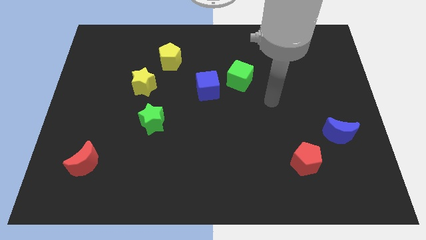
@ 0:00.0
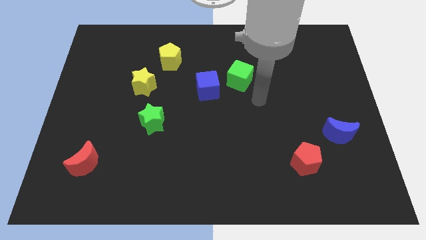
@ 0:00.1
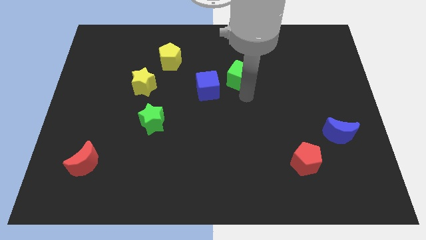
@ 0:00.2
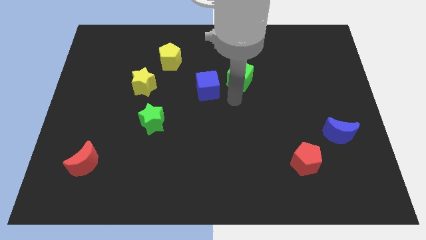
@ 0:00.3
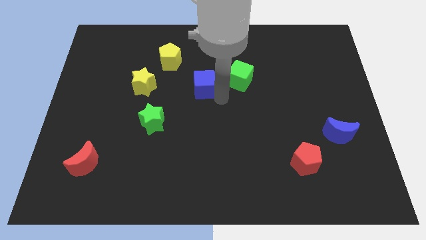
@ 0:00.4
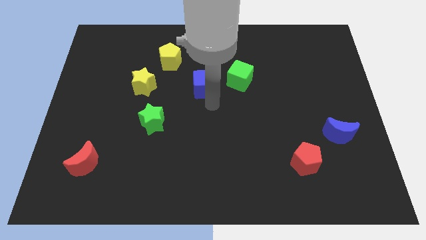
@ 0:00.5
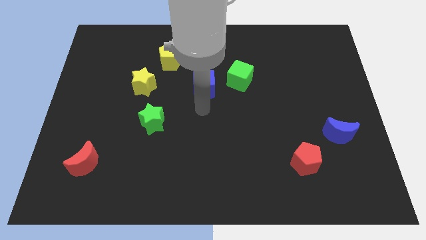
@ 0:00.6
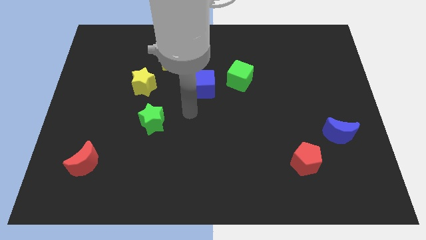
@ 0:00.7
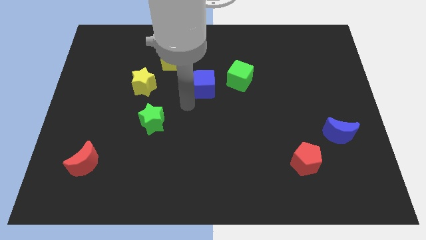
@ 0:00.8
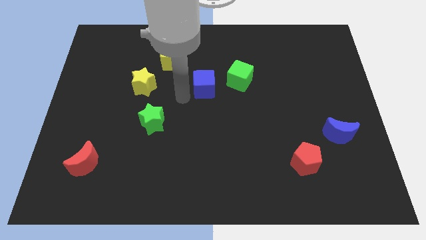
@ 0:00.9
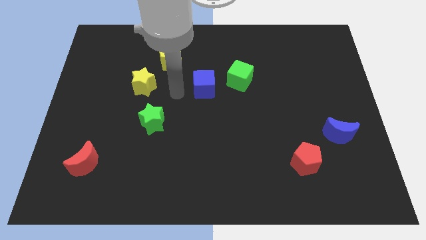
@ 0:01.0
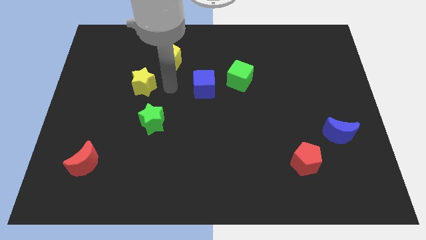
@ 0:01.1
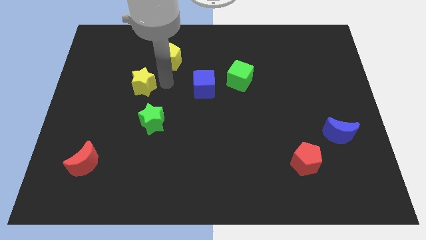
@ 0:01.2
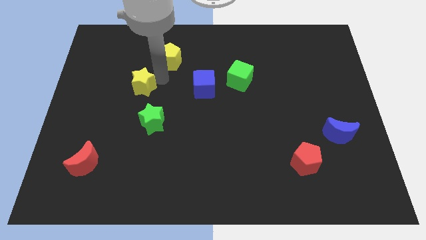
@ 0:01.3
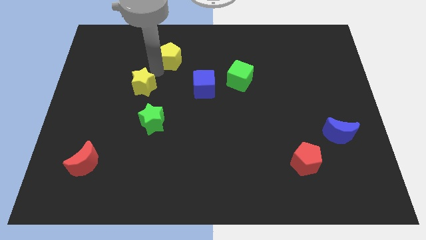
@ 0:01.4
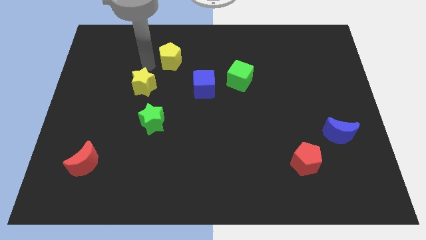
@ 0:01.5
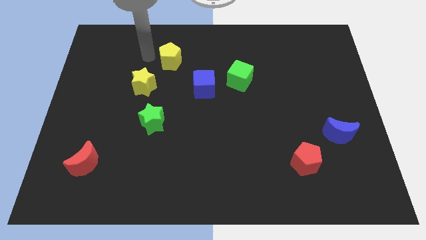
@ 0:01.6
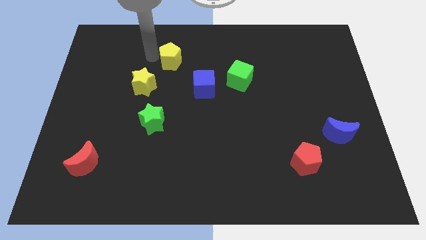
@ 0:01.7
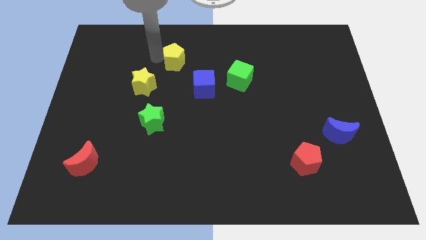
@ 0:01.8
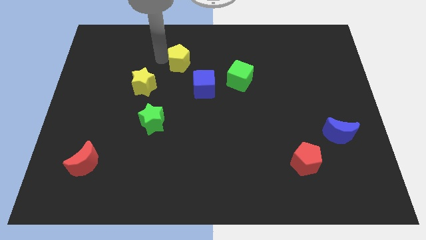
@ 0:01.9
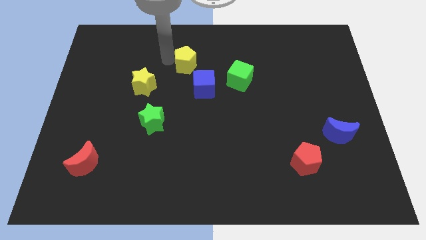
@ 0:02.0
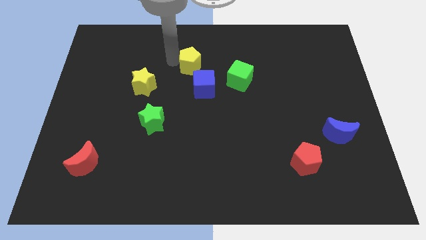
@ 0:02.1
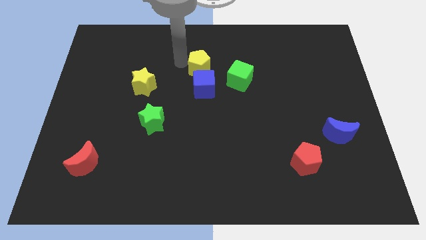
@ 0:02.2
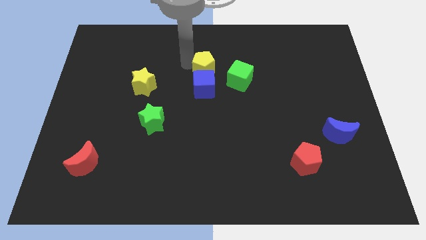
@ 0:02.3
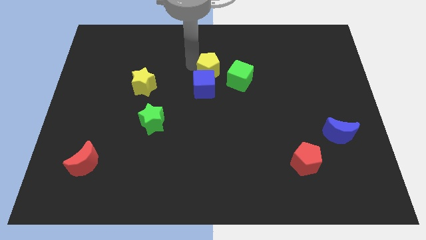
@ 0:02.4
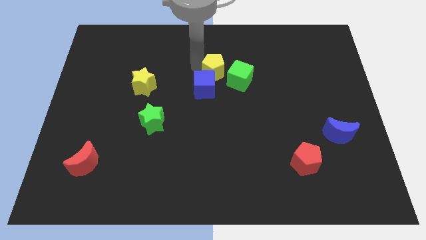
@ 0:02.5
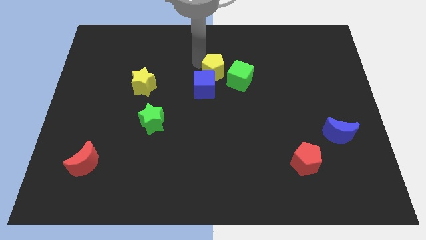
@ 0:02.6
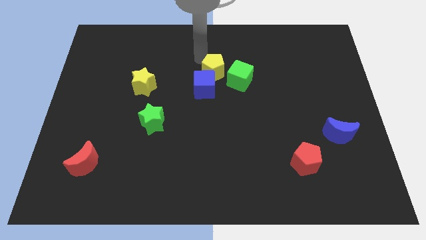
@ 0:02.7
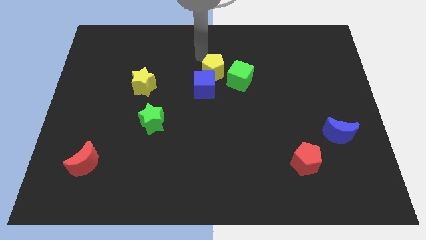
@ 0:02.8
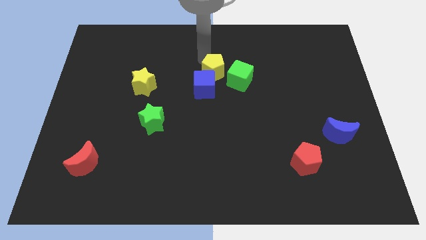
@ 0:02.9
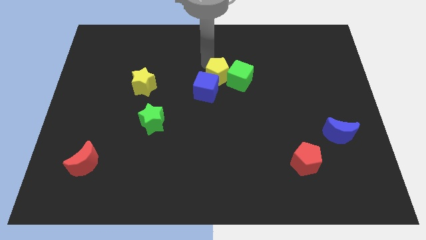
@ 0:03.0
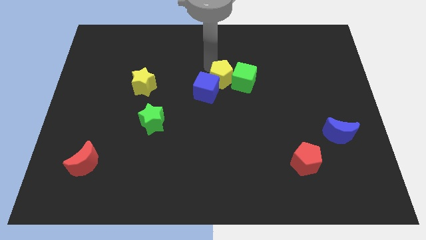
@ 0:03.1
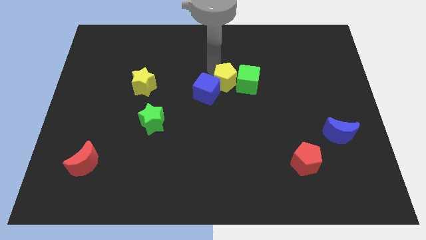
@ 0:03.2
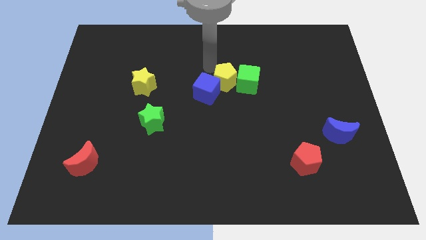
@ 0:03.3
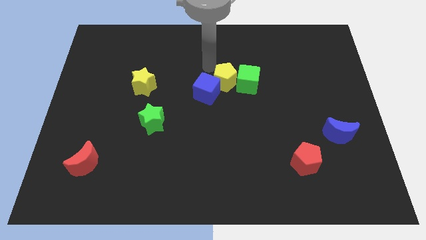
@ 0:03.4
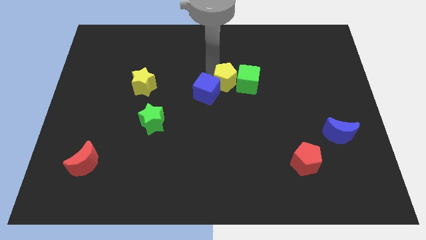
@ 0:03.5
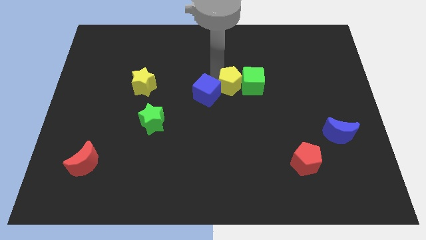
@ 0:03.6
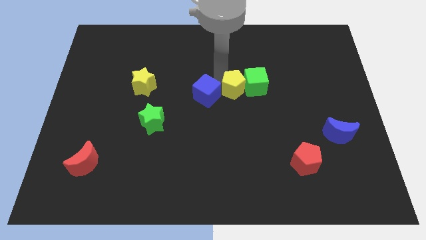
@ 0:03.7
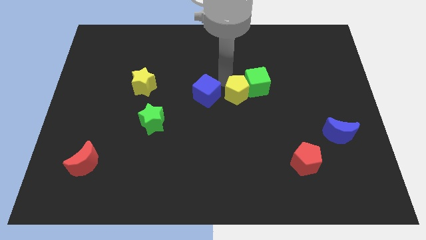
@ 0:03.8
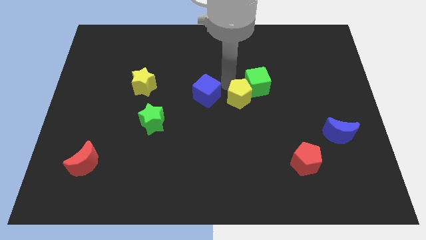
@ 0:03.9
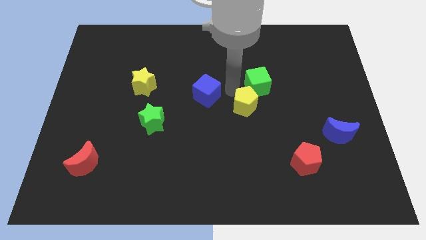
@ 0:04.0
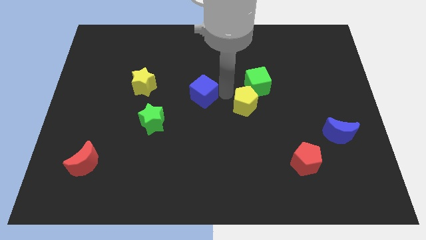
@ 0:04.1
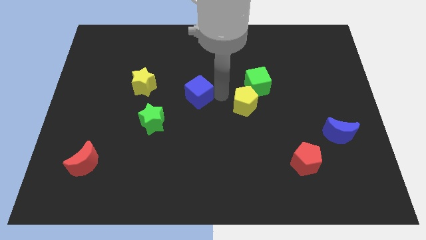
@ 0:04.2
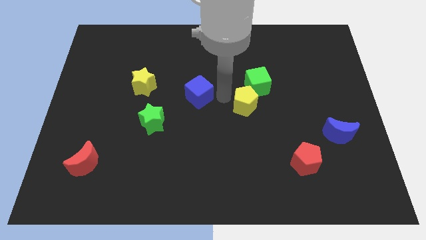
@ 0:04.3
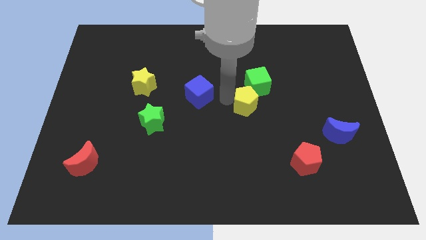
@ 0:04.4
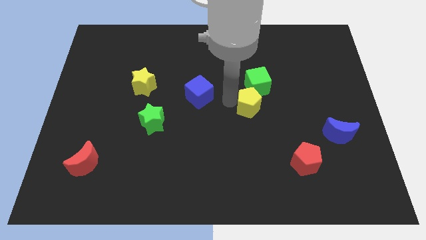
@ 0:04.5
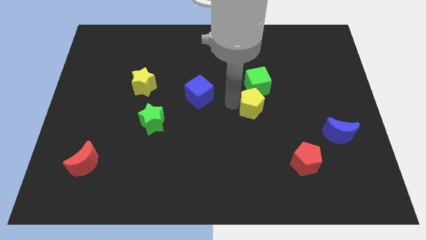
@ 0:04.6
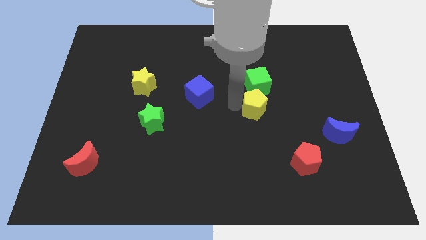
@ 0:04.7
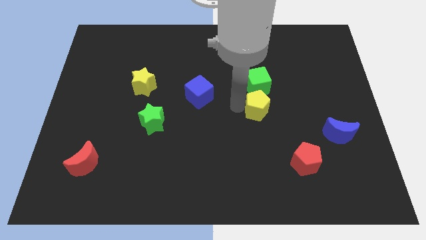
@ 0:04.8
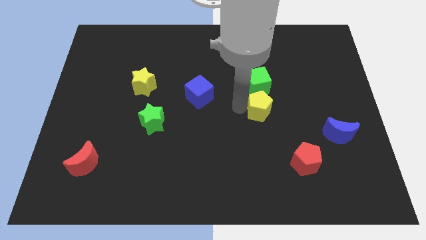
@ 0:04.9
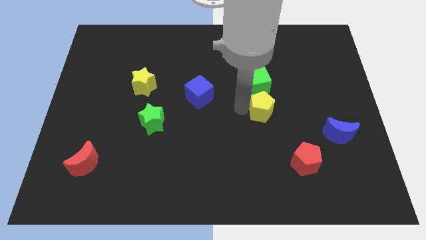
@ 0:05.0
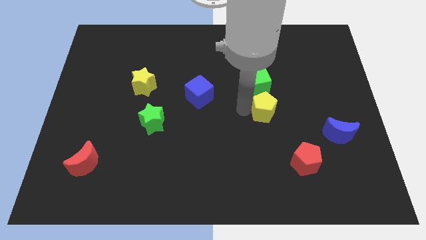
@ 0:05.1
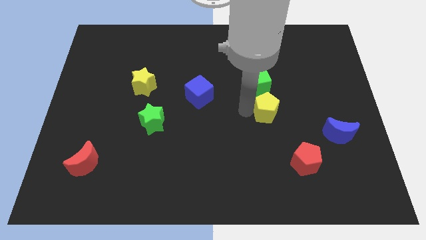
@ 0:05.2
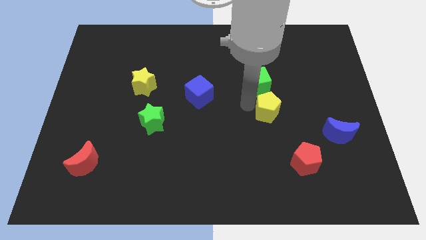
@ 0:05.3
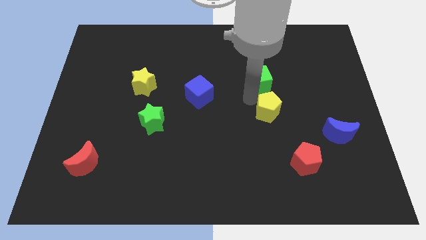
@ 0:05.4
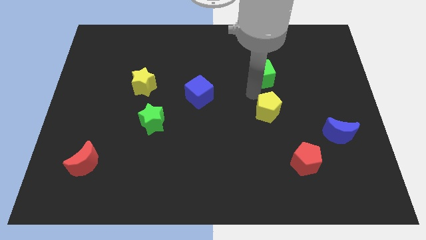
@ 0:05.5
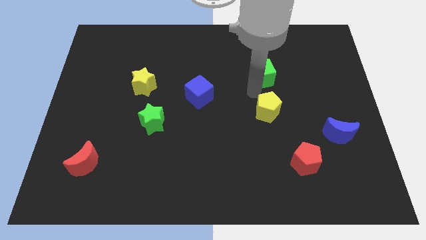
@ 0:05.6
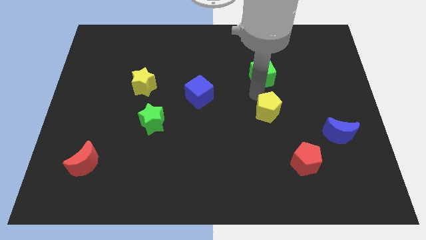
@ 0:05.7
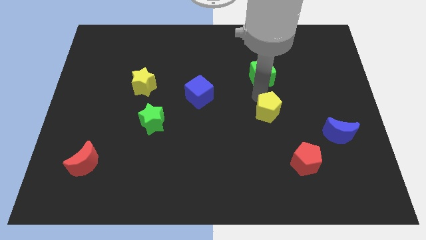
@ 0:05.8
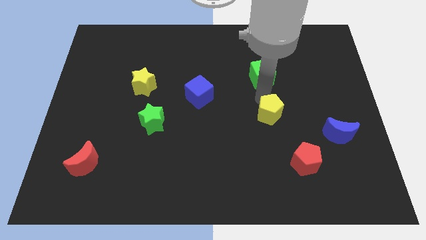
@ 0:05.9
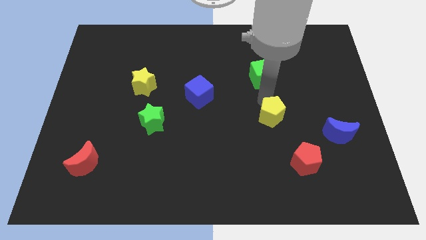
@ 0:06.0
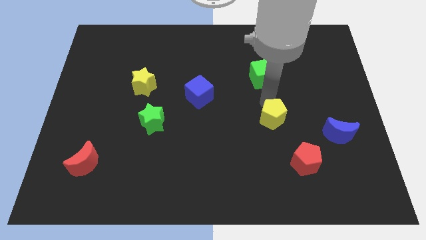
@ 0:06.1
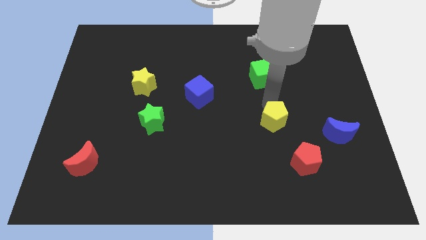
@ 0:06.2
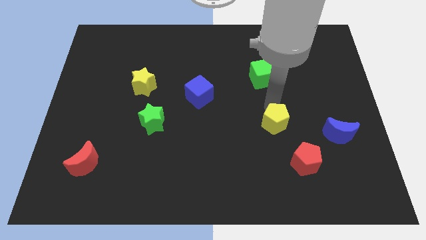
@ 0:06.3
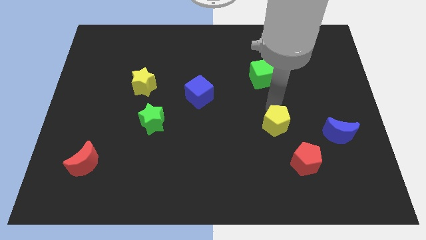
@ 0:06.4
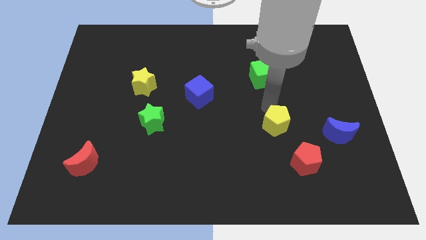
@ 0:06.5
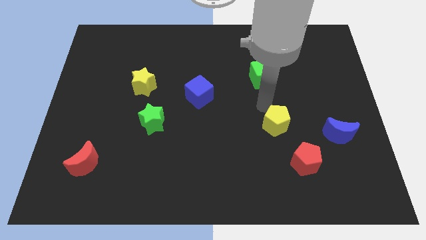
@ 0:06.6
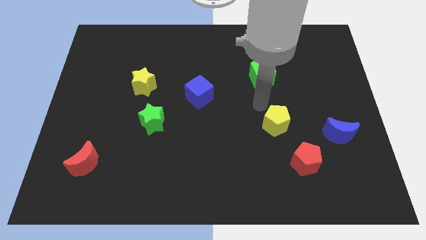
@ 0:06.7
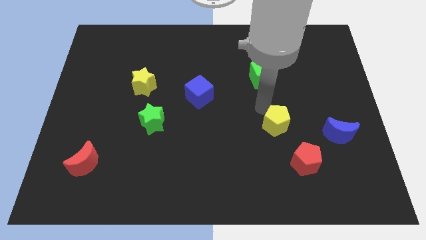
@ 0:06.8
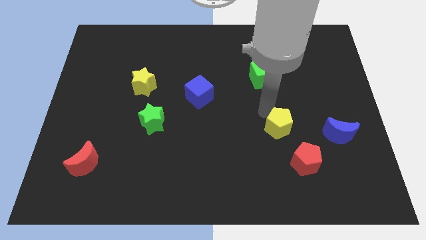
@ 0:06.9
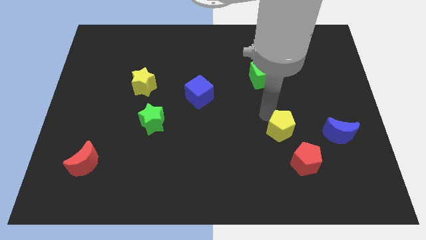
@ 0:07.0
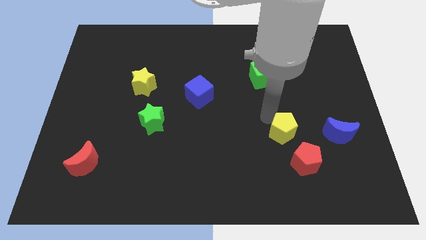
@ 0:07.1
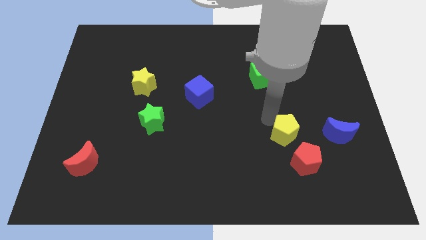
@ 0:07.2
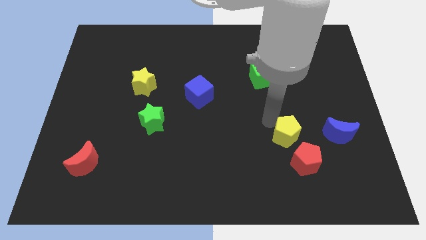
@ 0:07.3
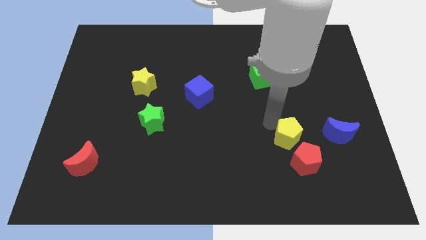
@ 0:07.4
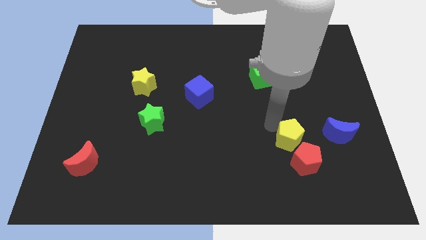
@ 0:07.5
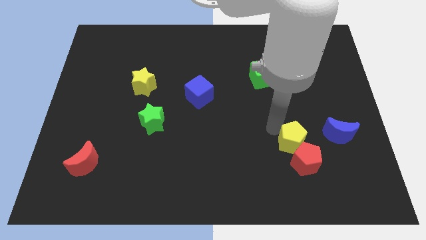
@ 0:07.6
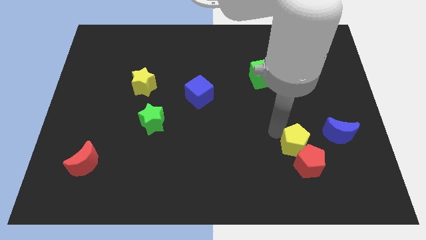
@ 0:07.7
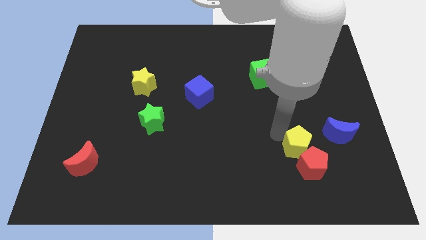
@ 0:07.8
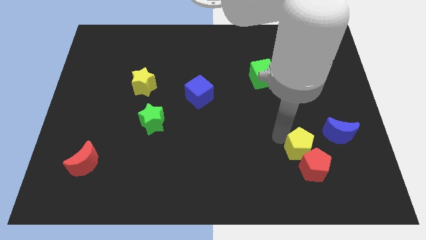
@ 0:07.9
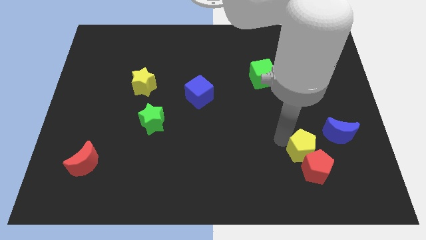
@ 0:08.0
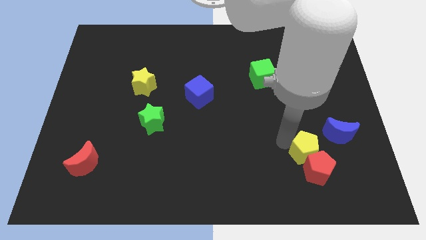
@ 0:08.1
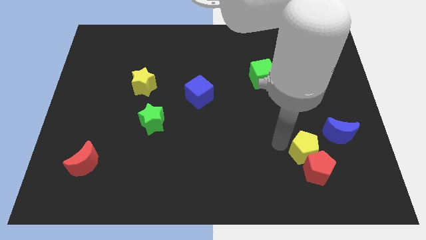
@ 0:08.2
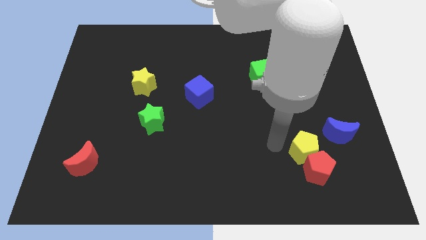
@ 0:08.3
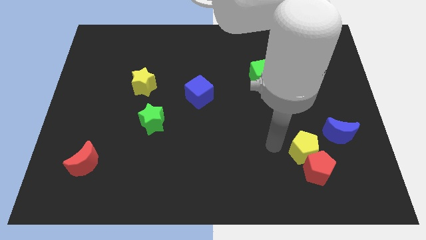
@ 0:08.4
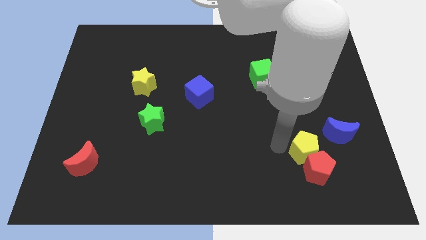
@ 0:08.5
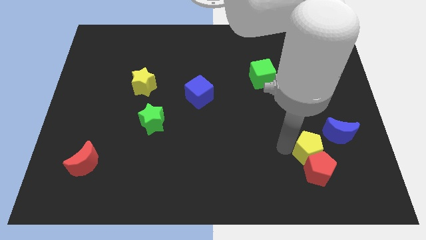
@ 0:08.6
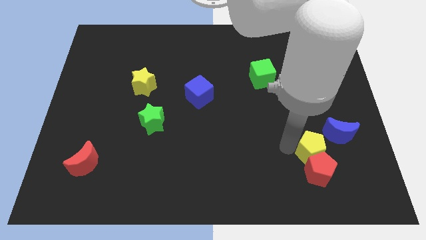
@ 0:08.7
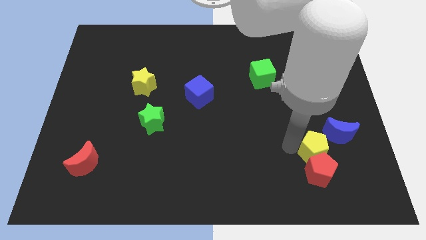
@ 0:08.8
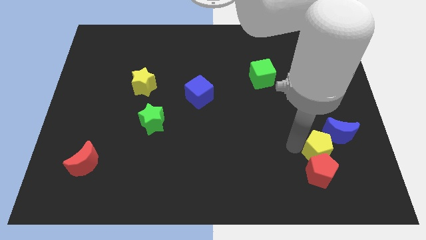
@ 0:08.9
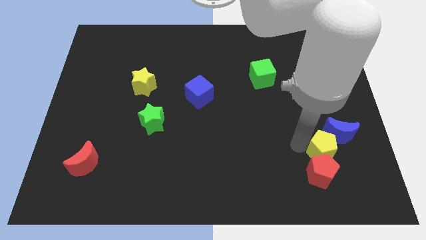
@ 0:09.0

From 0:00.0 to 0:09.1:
push the yellow pentagon below the blue moon
